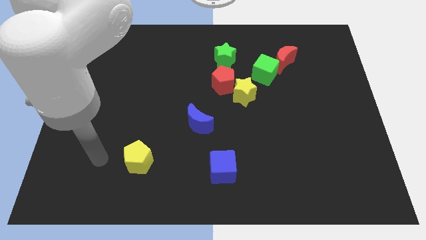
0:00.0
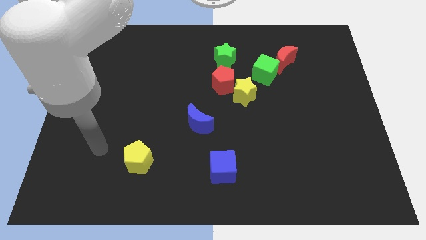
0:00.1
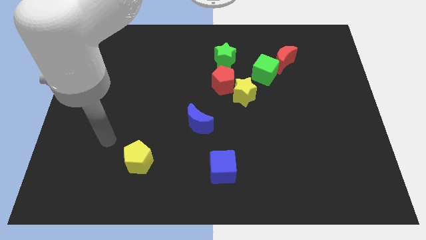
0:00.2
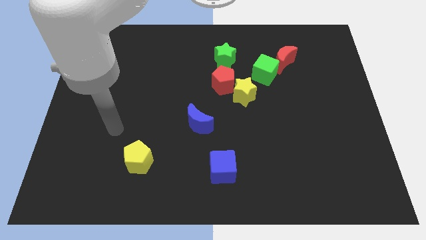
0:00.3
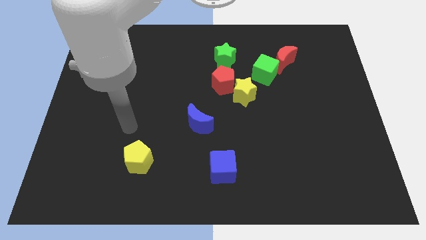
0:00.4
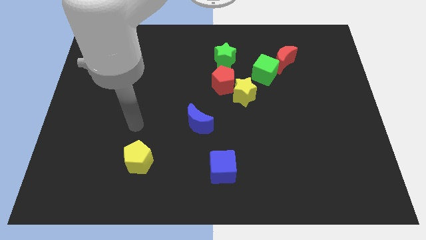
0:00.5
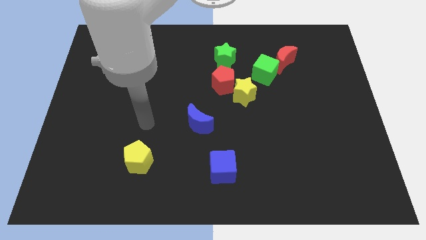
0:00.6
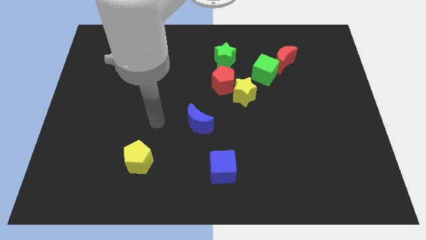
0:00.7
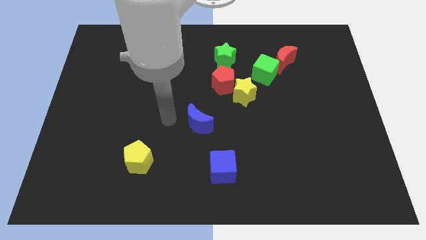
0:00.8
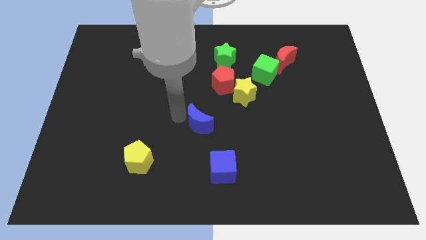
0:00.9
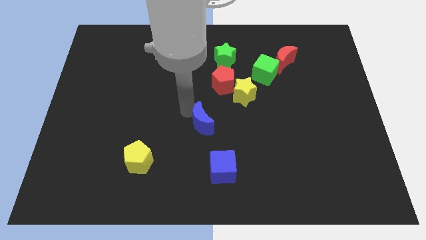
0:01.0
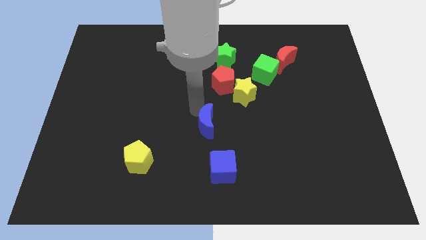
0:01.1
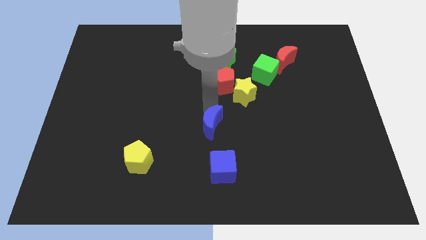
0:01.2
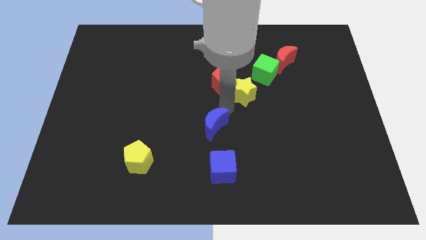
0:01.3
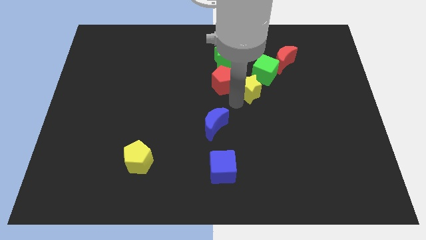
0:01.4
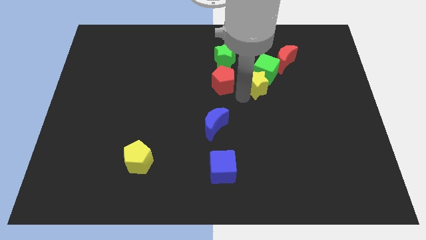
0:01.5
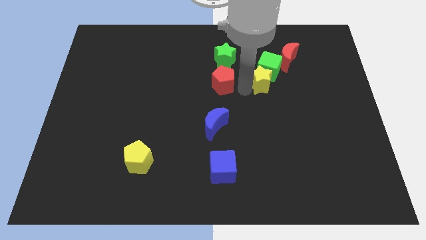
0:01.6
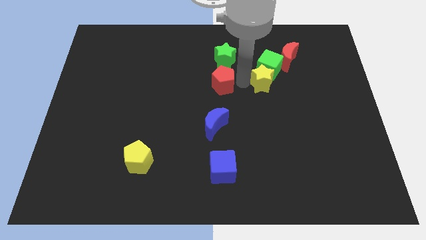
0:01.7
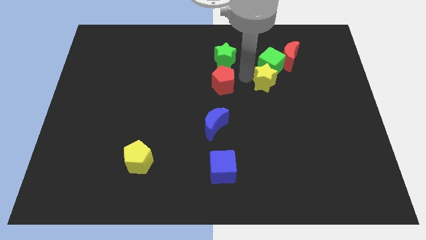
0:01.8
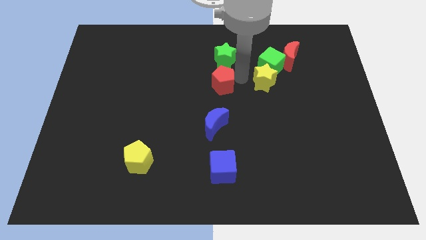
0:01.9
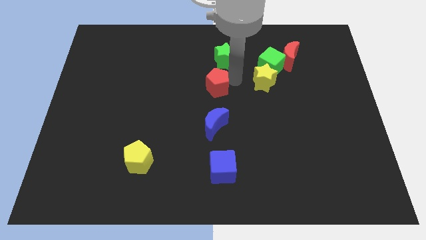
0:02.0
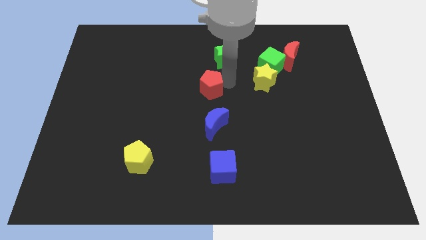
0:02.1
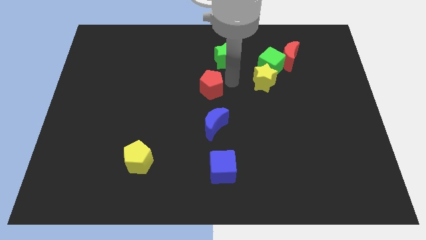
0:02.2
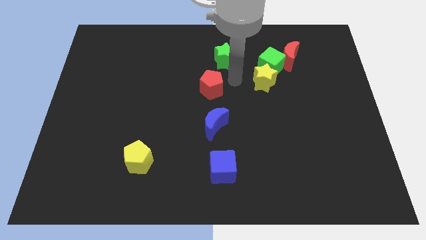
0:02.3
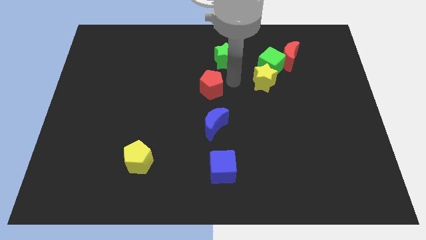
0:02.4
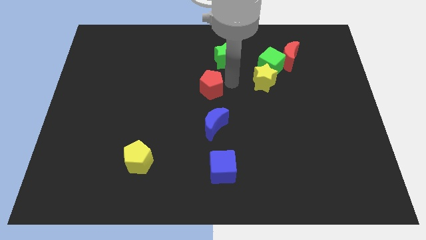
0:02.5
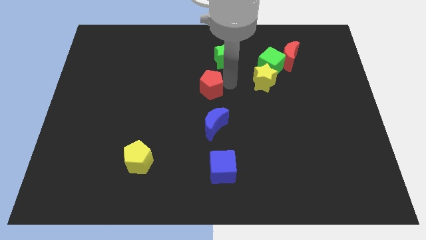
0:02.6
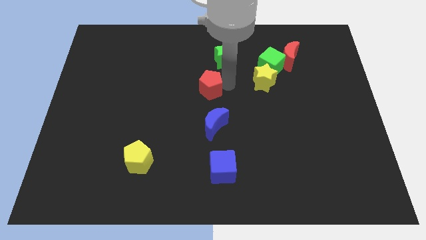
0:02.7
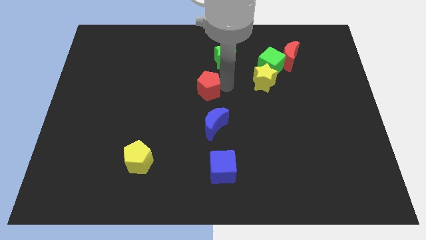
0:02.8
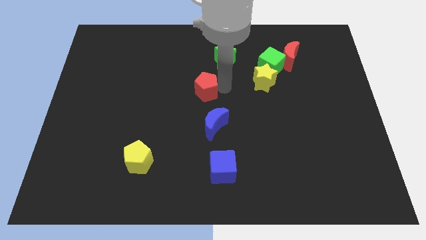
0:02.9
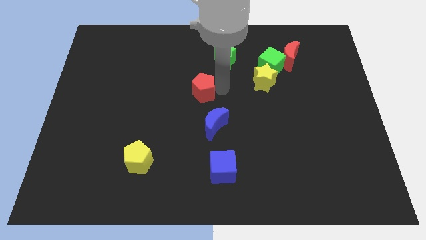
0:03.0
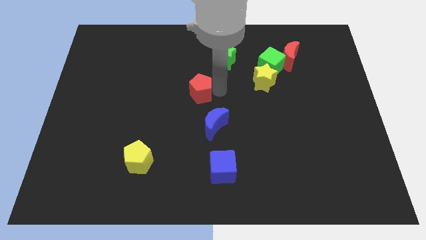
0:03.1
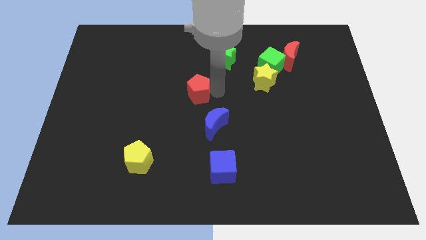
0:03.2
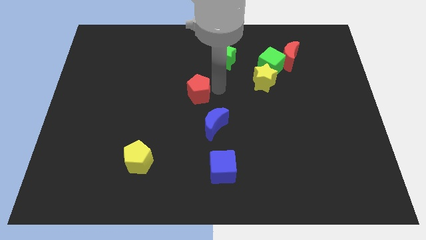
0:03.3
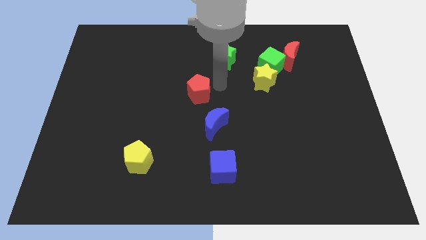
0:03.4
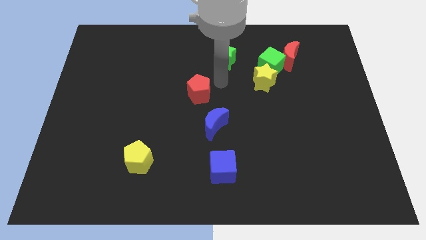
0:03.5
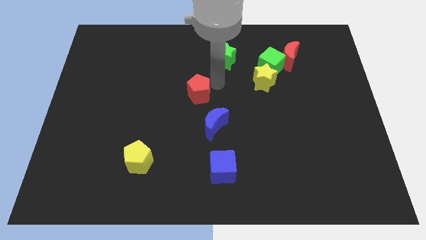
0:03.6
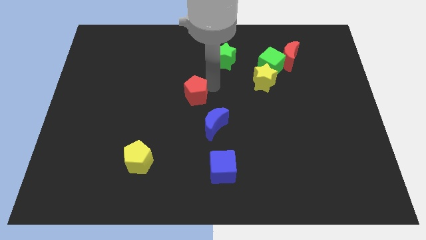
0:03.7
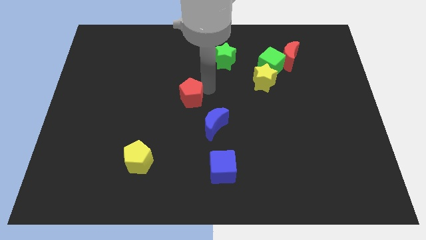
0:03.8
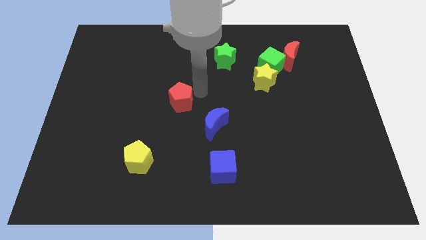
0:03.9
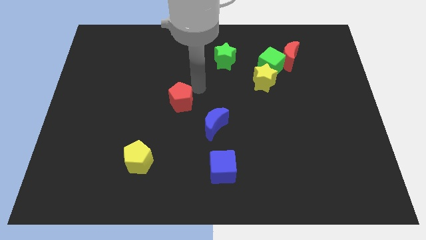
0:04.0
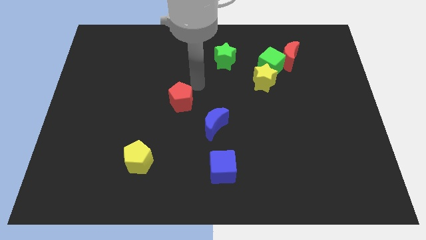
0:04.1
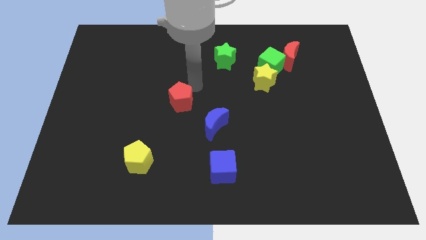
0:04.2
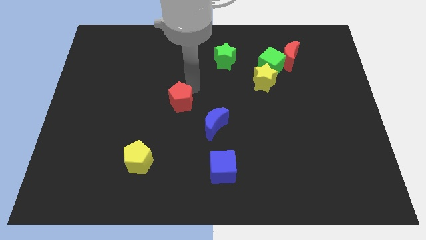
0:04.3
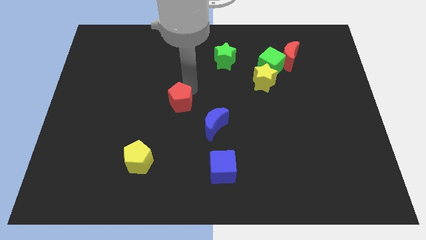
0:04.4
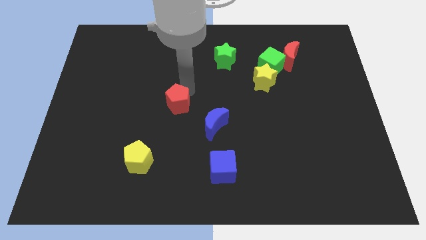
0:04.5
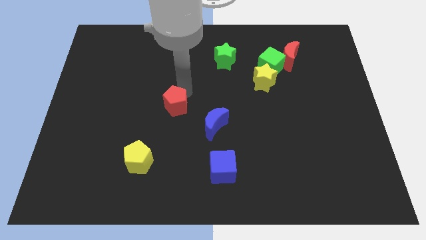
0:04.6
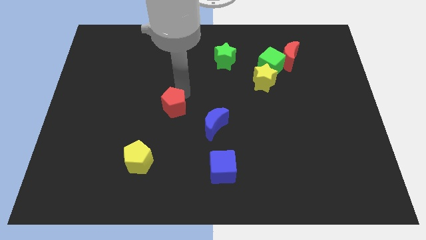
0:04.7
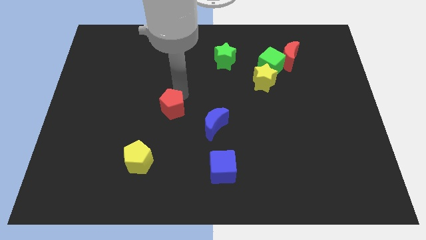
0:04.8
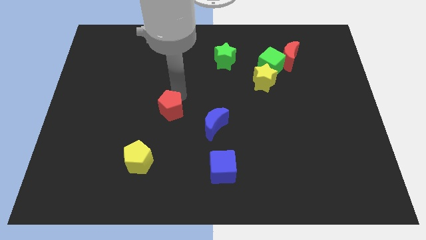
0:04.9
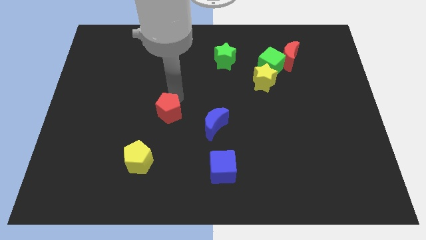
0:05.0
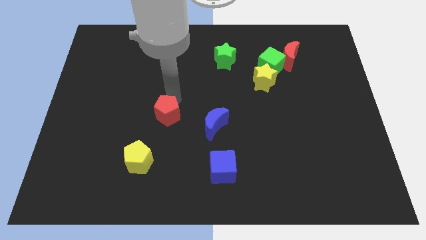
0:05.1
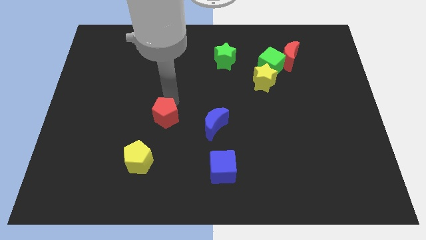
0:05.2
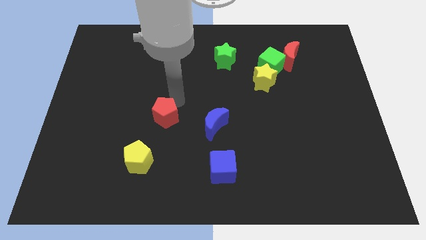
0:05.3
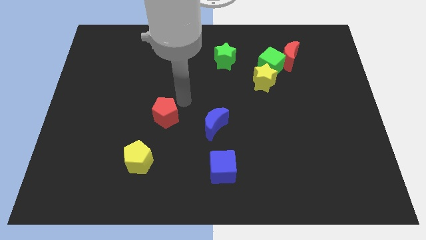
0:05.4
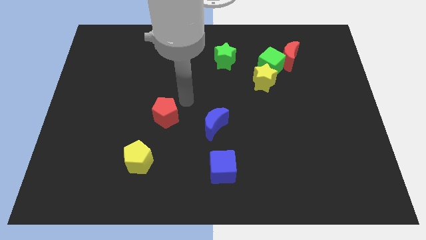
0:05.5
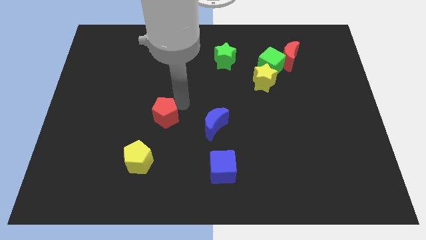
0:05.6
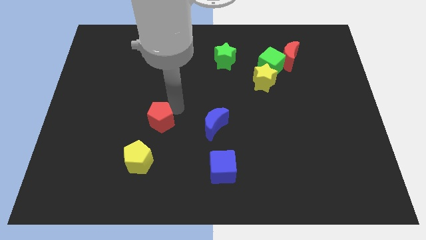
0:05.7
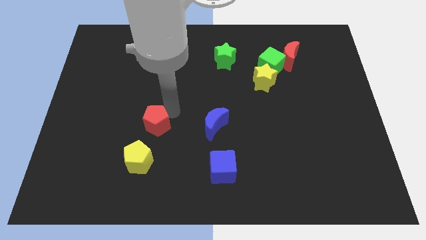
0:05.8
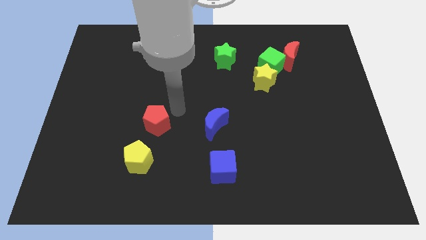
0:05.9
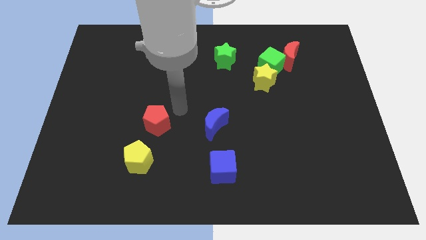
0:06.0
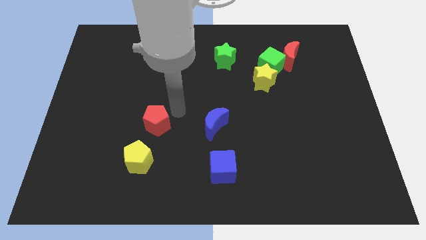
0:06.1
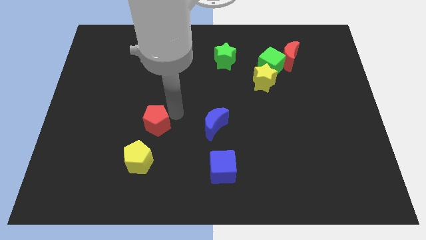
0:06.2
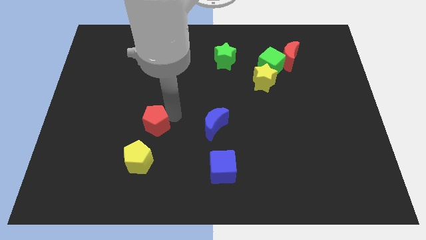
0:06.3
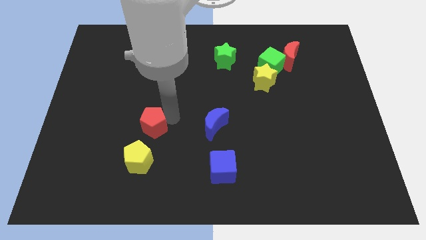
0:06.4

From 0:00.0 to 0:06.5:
push the red pentagon diagonally downwards and left

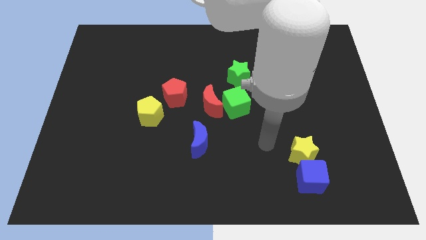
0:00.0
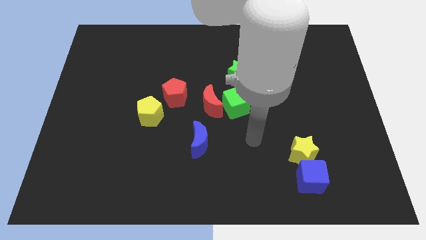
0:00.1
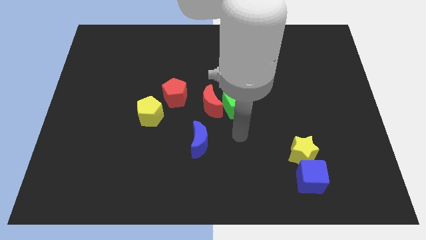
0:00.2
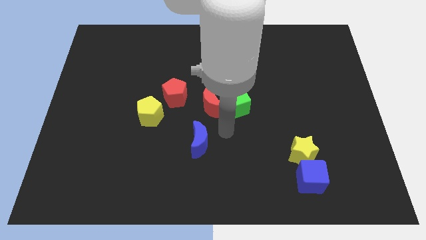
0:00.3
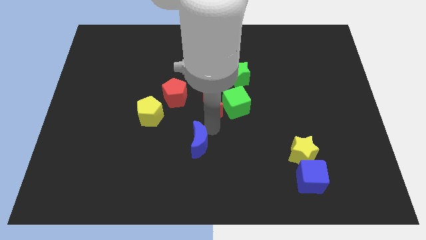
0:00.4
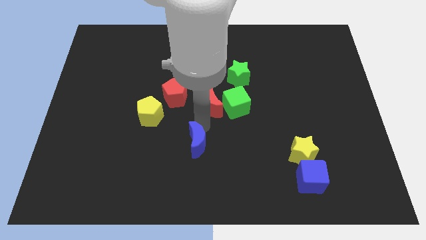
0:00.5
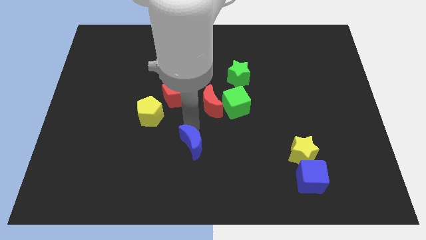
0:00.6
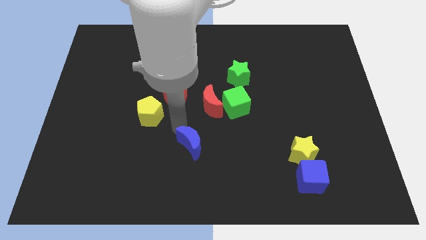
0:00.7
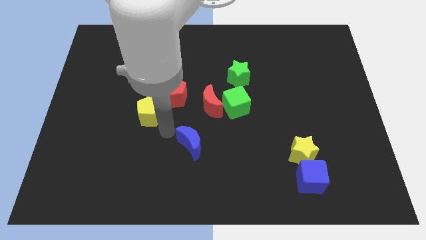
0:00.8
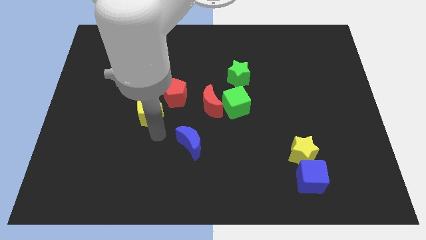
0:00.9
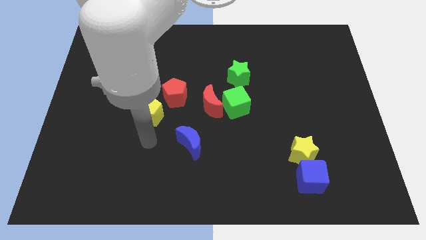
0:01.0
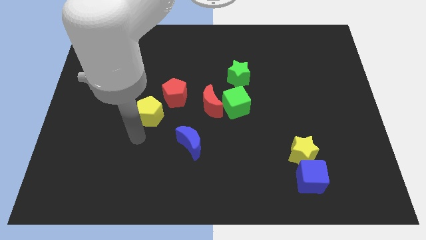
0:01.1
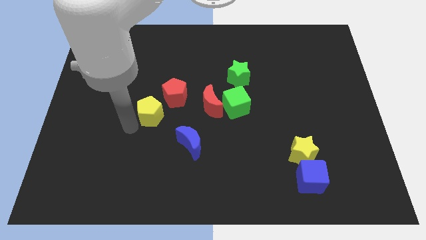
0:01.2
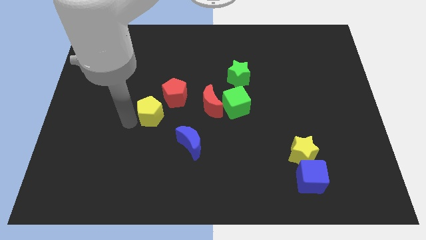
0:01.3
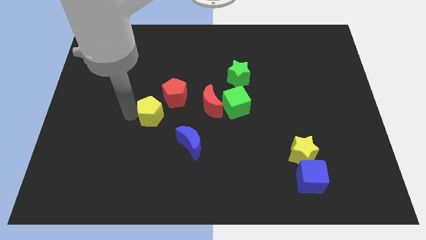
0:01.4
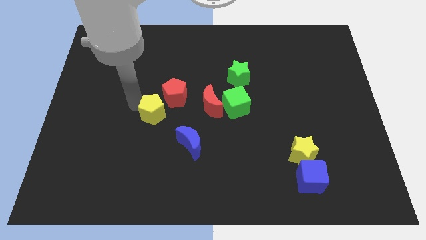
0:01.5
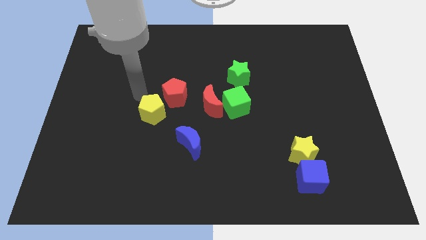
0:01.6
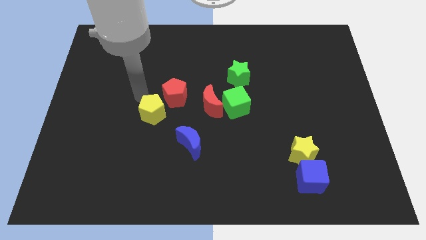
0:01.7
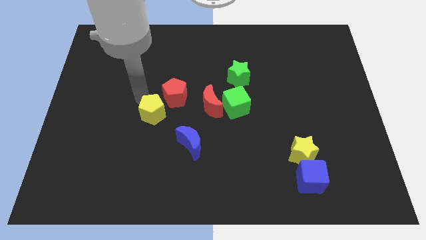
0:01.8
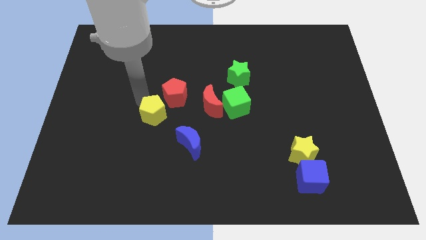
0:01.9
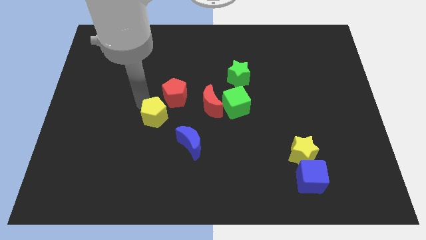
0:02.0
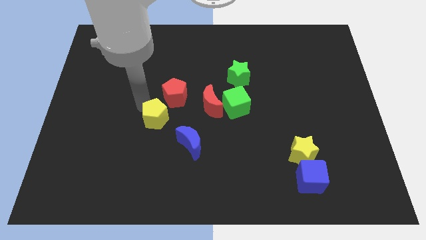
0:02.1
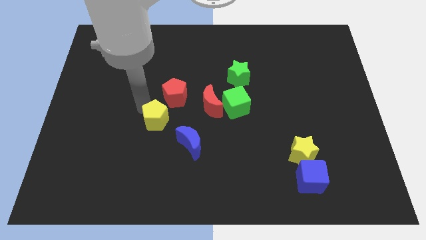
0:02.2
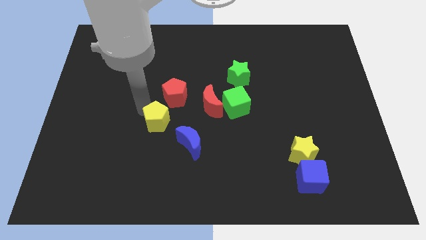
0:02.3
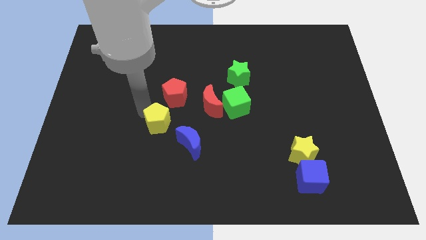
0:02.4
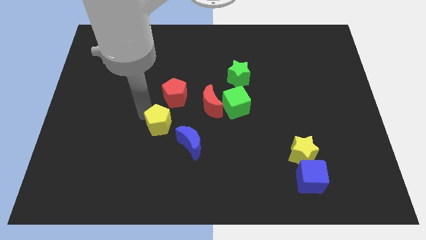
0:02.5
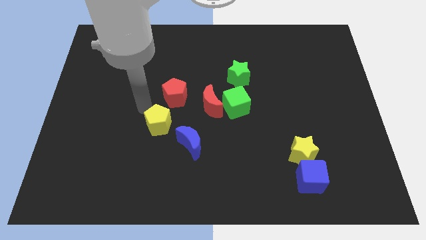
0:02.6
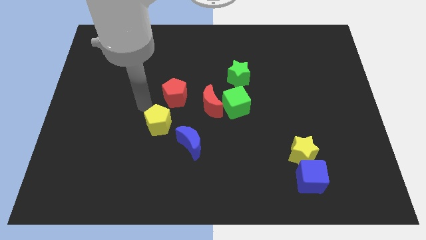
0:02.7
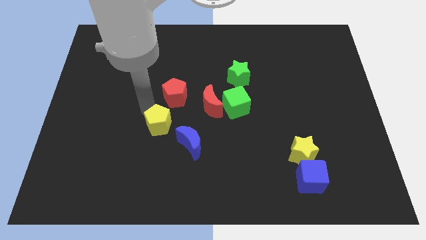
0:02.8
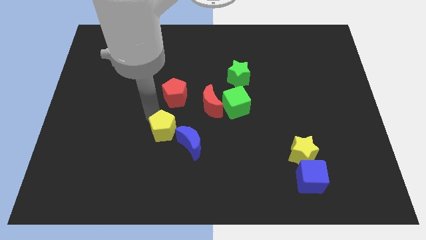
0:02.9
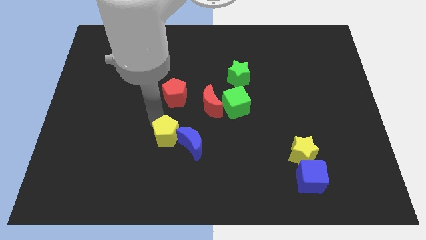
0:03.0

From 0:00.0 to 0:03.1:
slightly slide the yellow pentagon downwards and right
